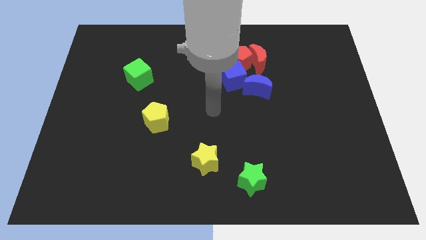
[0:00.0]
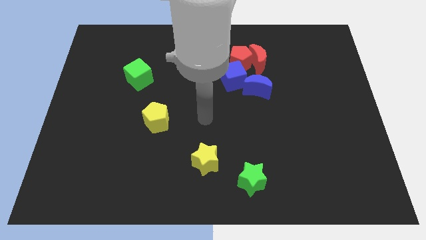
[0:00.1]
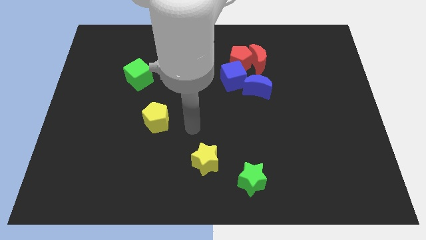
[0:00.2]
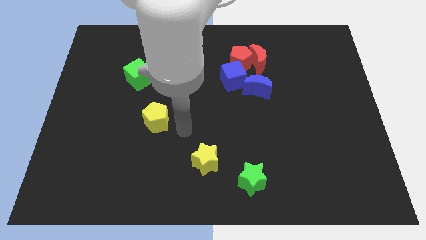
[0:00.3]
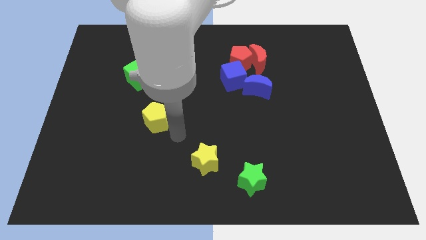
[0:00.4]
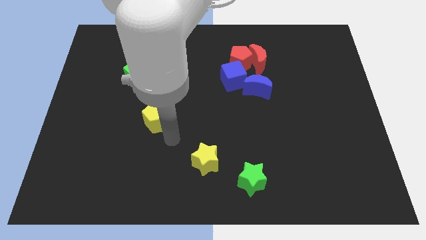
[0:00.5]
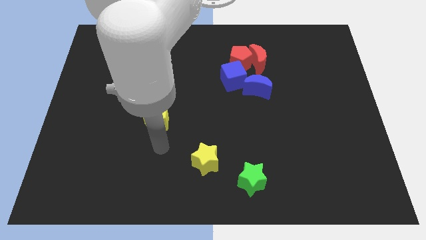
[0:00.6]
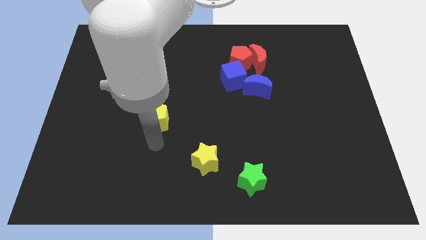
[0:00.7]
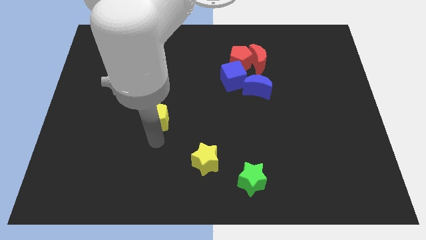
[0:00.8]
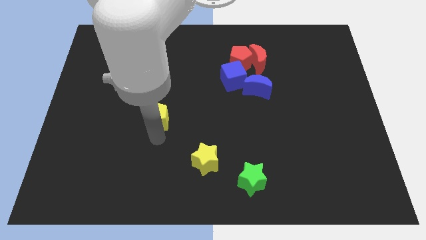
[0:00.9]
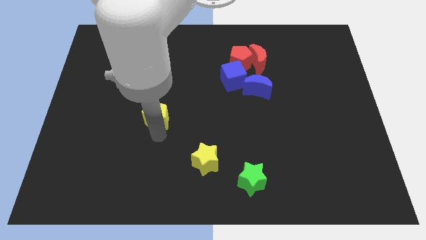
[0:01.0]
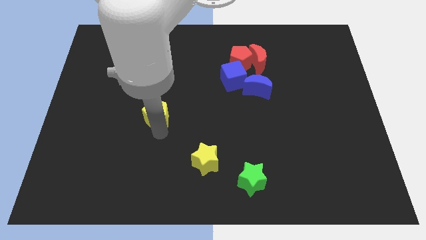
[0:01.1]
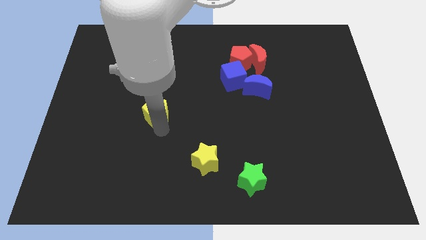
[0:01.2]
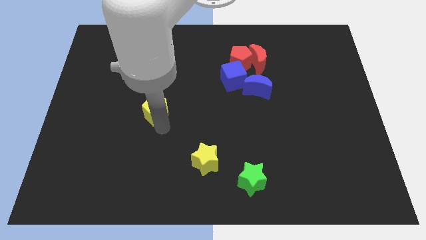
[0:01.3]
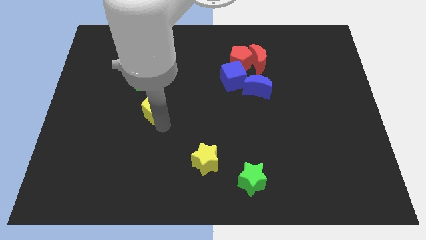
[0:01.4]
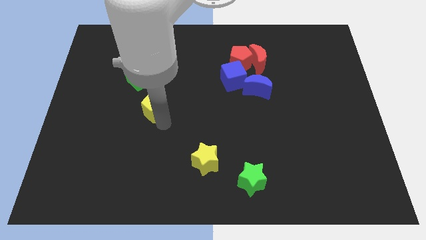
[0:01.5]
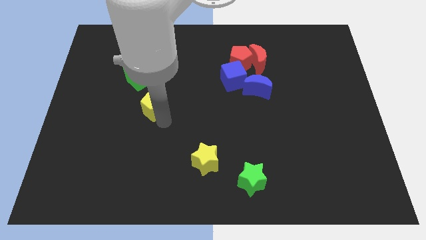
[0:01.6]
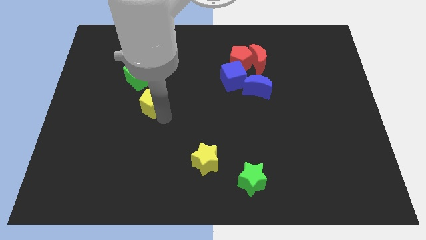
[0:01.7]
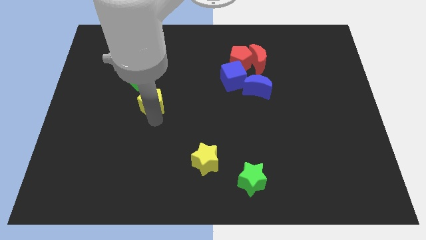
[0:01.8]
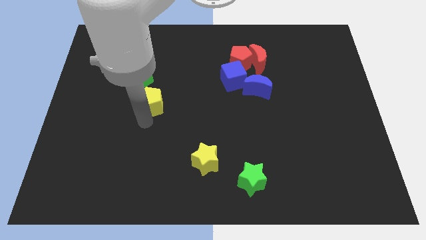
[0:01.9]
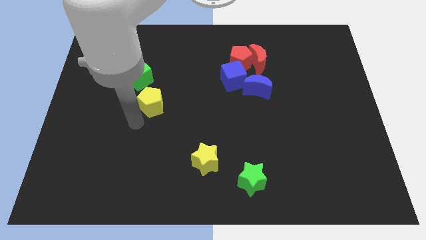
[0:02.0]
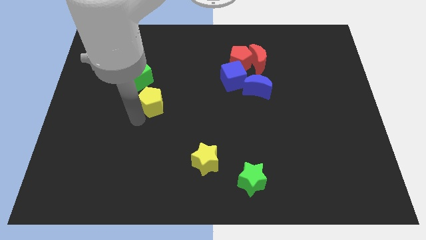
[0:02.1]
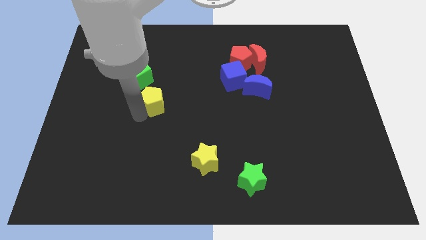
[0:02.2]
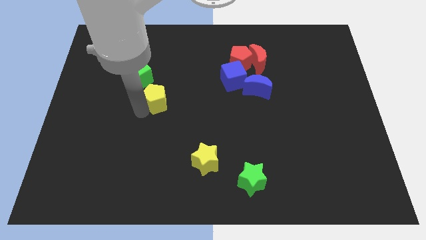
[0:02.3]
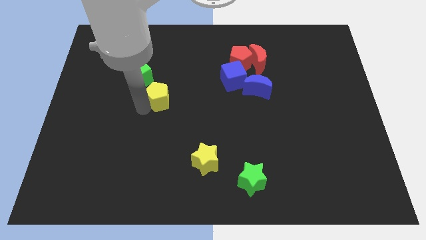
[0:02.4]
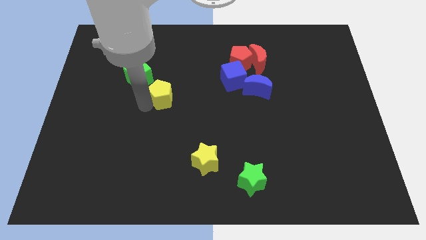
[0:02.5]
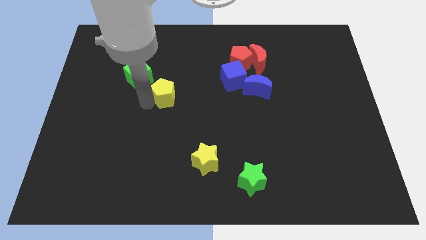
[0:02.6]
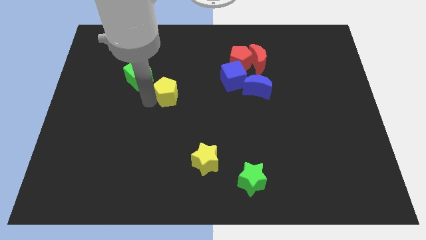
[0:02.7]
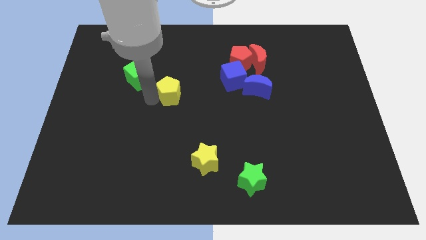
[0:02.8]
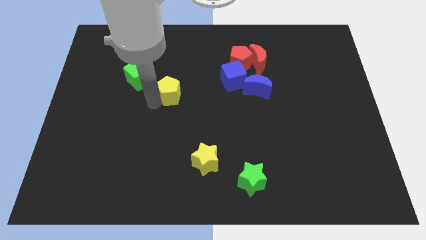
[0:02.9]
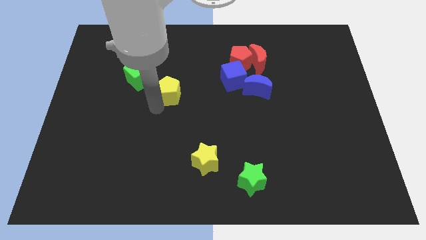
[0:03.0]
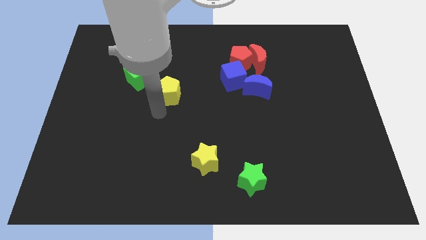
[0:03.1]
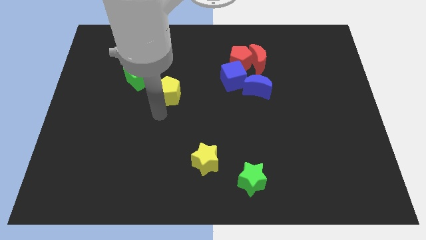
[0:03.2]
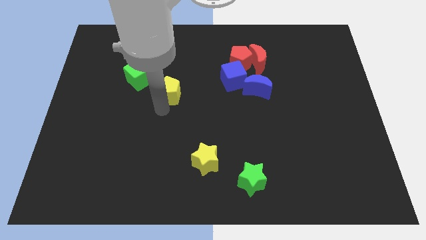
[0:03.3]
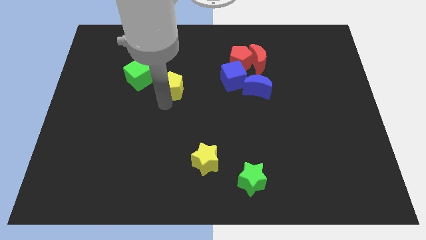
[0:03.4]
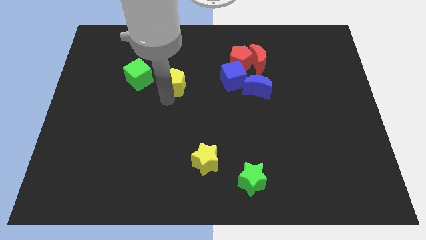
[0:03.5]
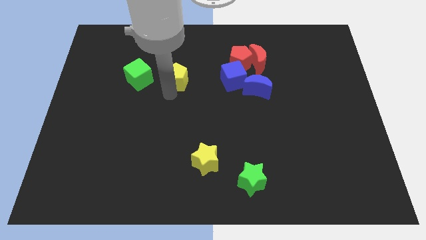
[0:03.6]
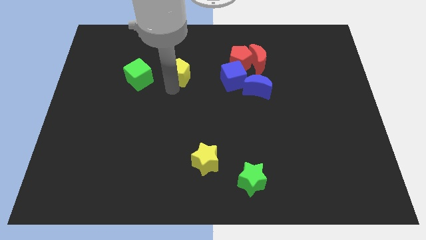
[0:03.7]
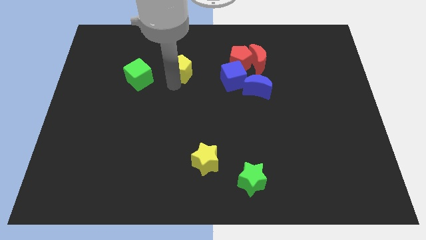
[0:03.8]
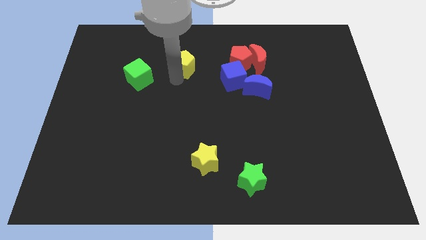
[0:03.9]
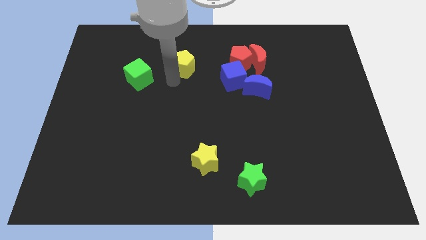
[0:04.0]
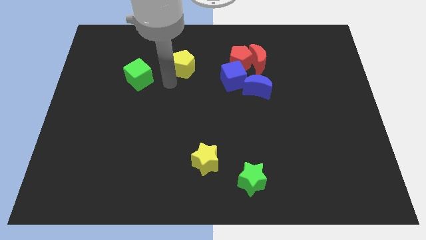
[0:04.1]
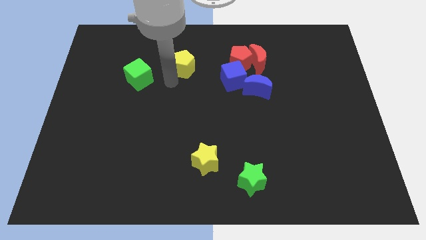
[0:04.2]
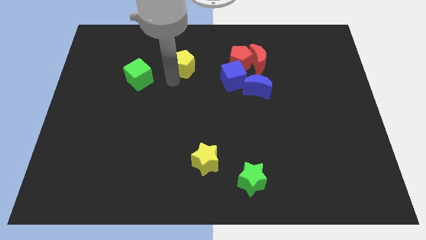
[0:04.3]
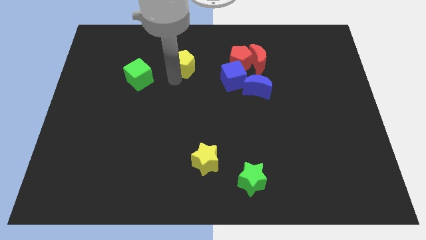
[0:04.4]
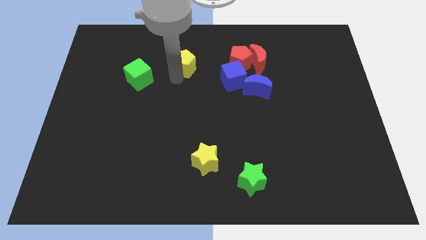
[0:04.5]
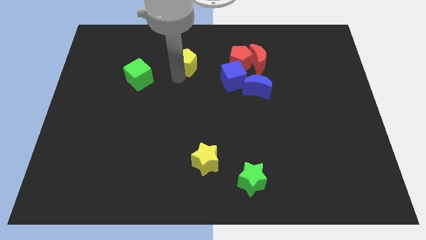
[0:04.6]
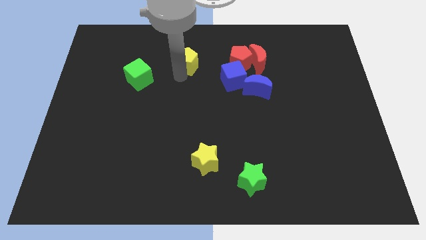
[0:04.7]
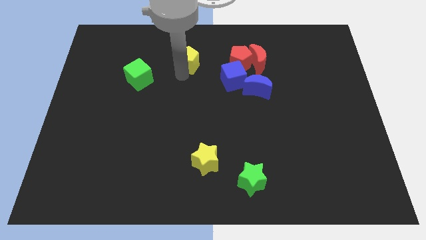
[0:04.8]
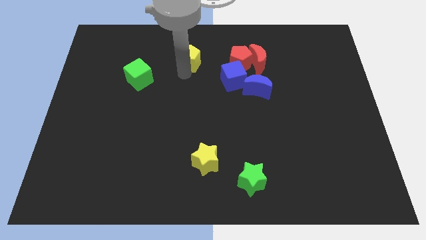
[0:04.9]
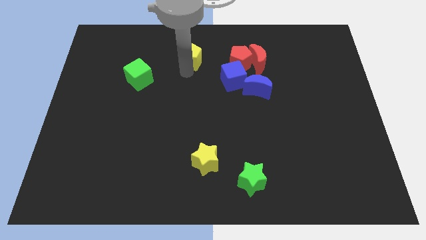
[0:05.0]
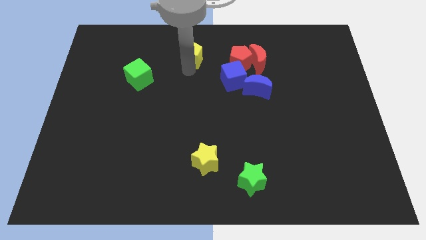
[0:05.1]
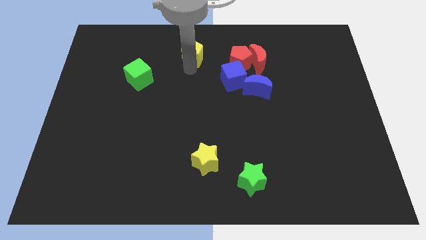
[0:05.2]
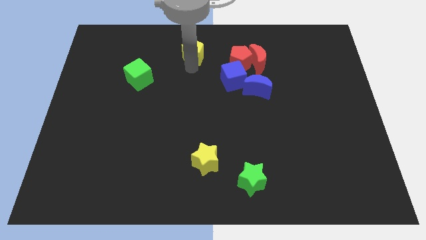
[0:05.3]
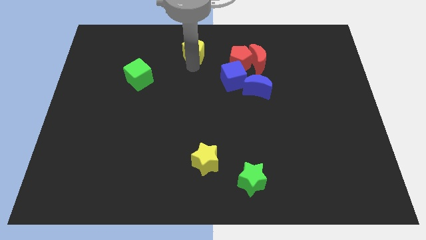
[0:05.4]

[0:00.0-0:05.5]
put the yellow pentagon to the towards your base
